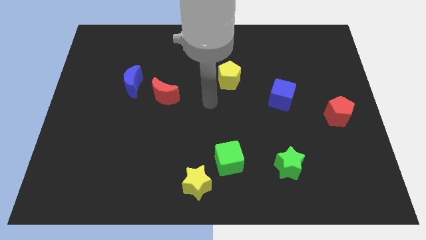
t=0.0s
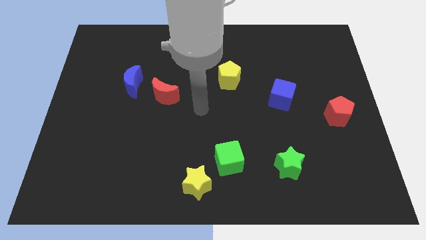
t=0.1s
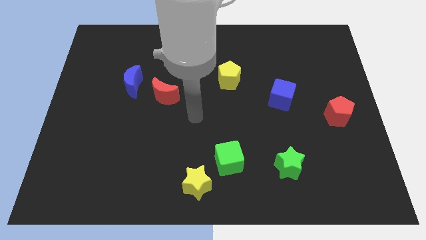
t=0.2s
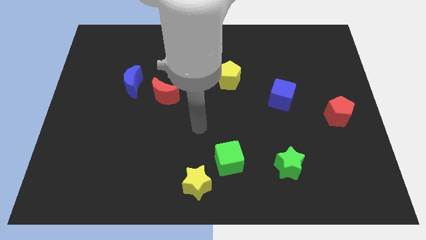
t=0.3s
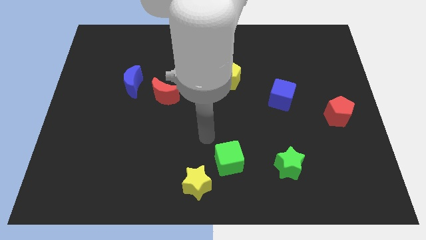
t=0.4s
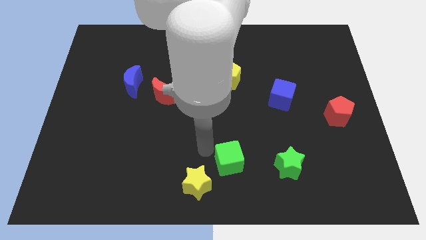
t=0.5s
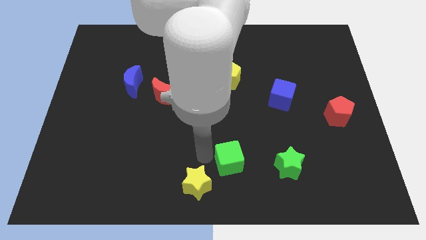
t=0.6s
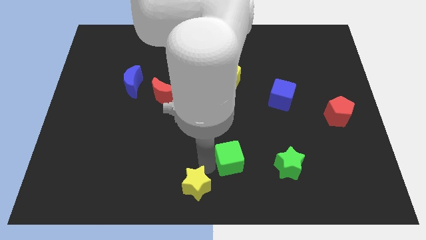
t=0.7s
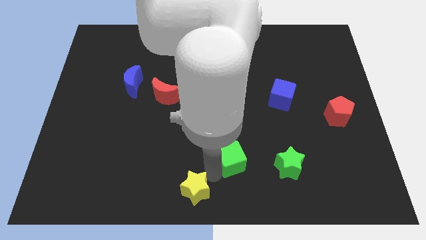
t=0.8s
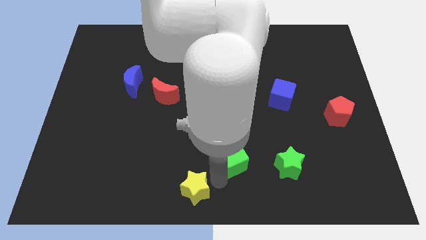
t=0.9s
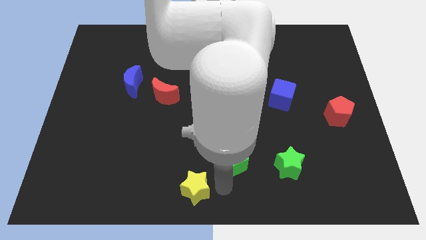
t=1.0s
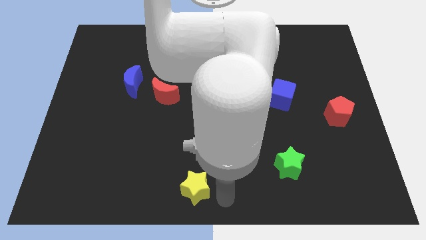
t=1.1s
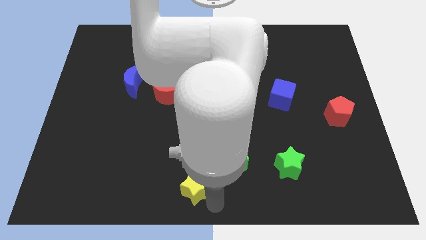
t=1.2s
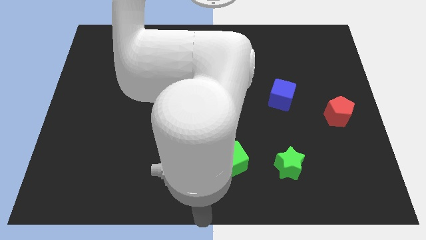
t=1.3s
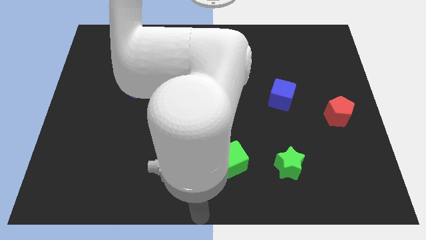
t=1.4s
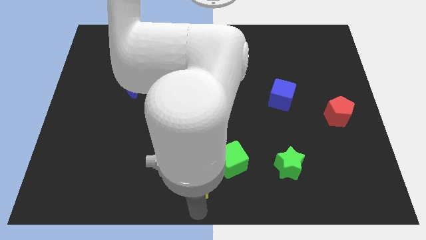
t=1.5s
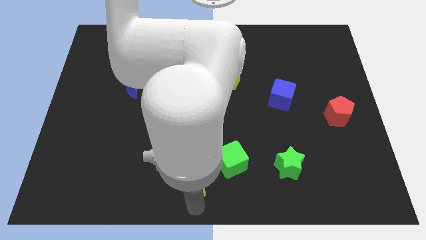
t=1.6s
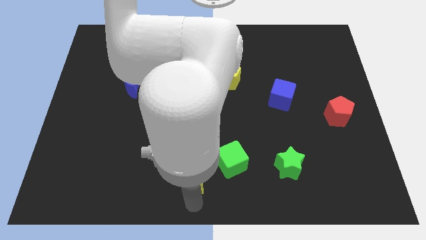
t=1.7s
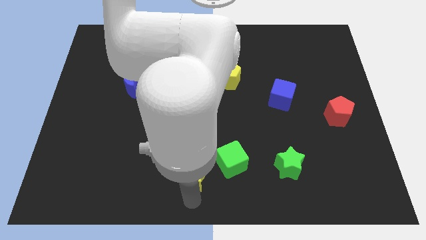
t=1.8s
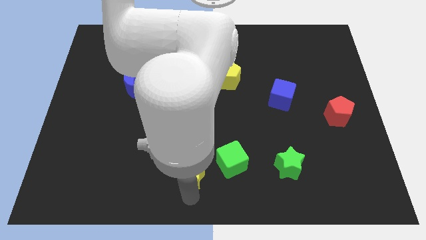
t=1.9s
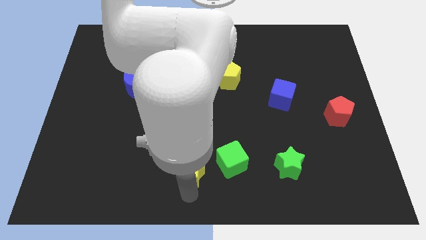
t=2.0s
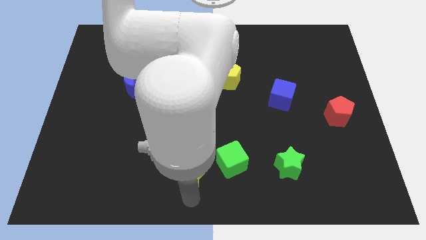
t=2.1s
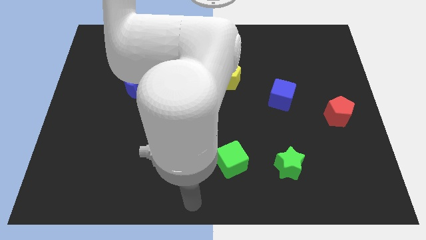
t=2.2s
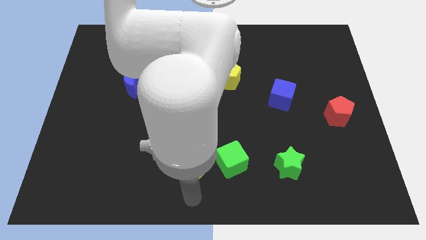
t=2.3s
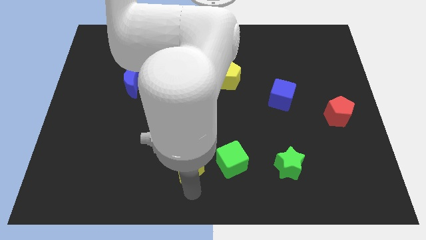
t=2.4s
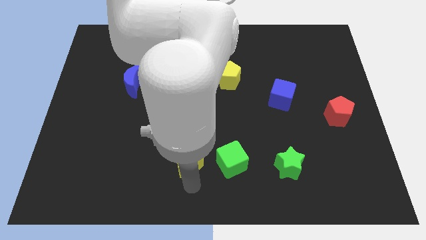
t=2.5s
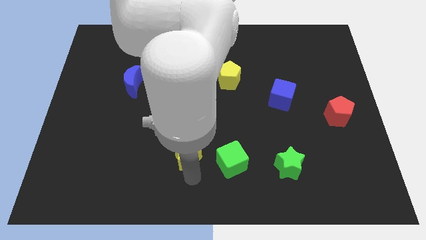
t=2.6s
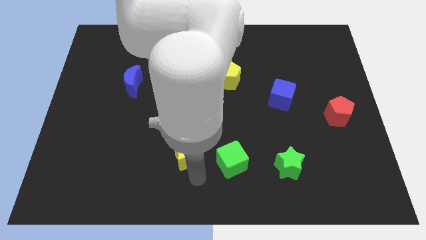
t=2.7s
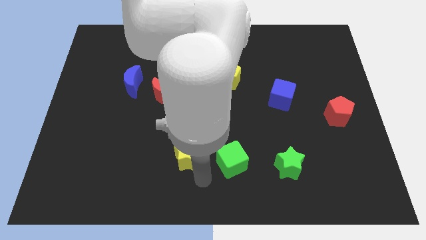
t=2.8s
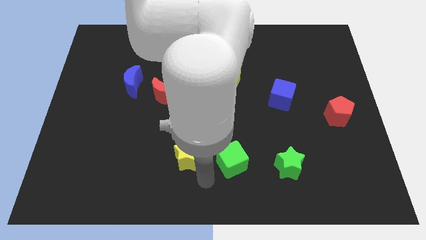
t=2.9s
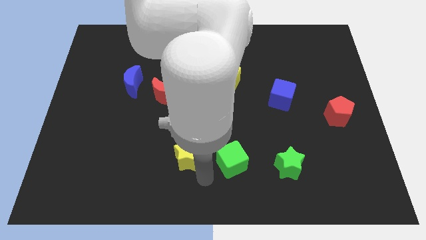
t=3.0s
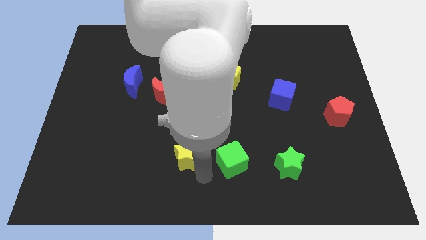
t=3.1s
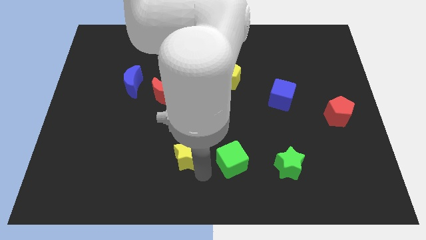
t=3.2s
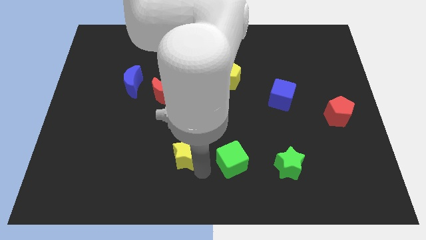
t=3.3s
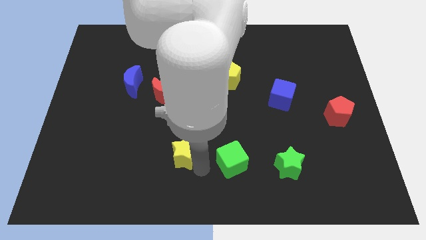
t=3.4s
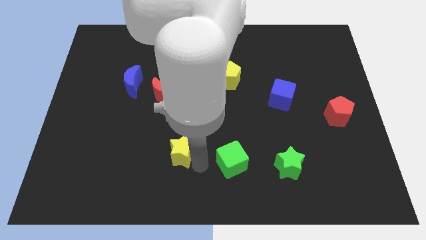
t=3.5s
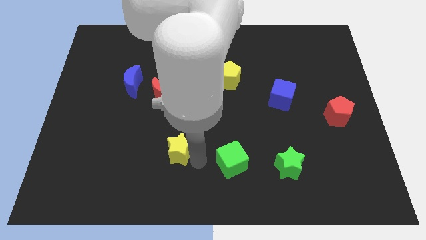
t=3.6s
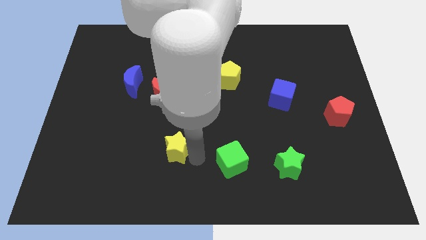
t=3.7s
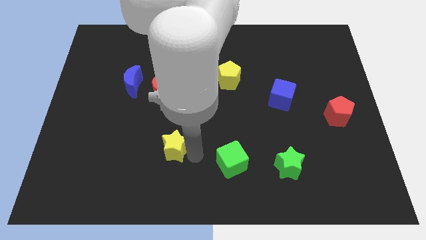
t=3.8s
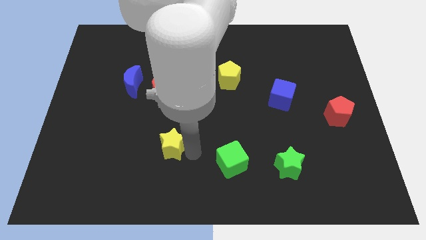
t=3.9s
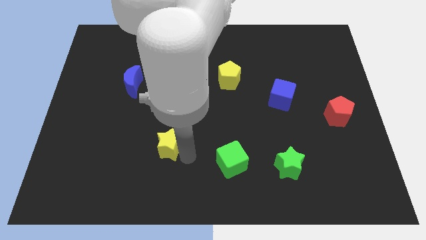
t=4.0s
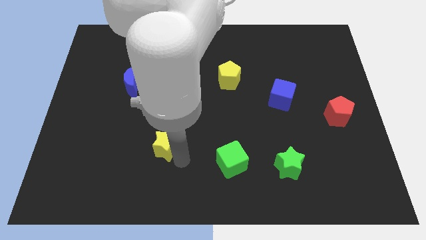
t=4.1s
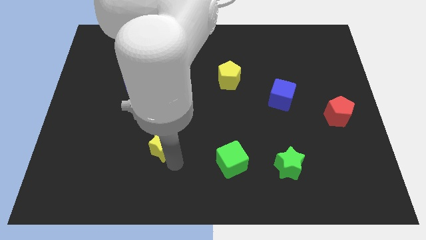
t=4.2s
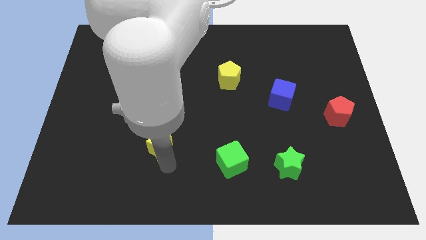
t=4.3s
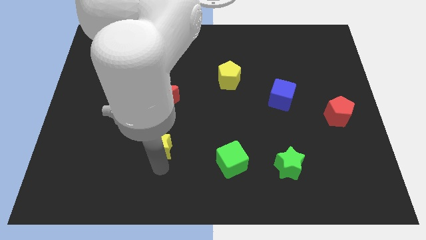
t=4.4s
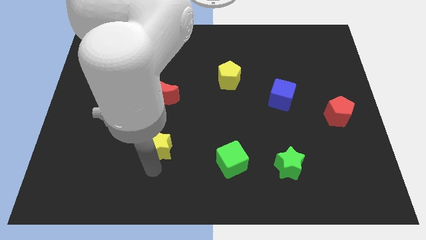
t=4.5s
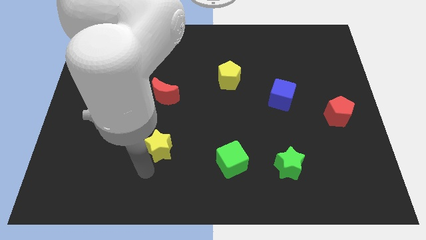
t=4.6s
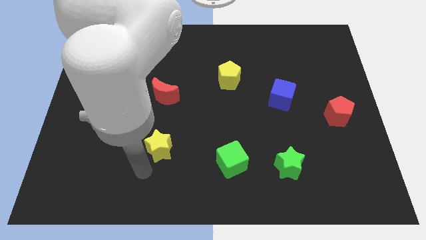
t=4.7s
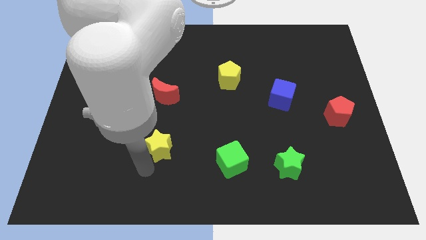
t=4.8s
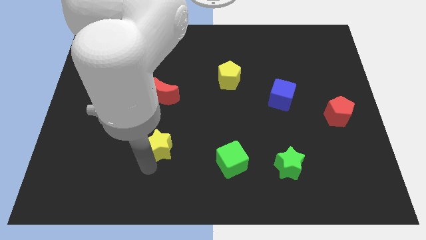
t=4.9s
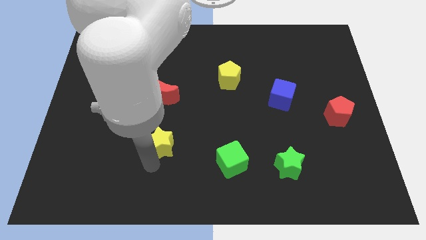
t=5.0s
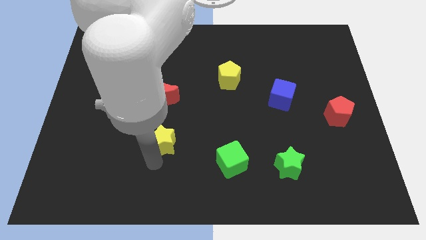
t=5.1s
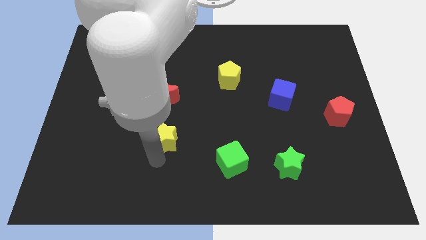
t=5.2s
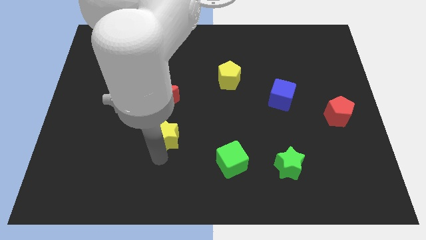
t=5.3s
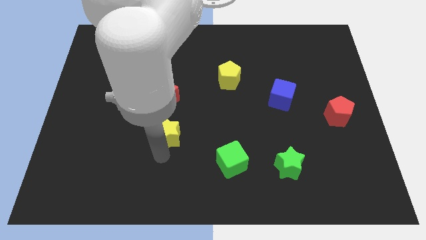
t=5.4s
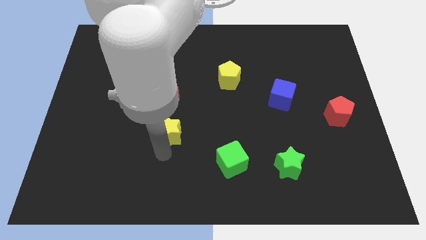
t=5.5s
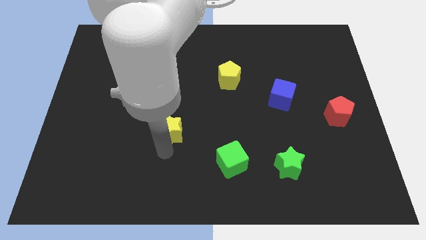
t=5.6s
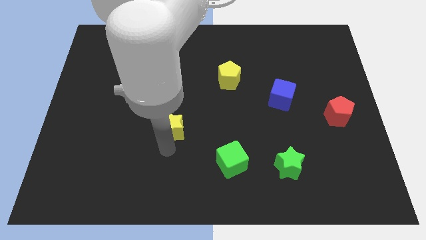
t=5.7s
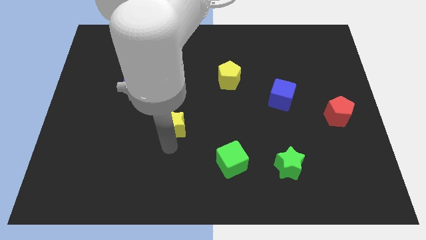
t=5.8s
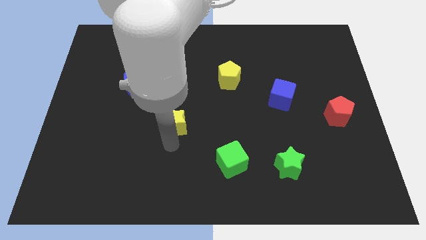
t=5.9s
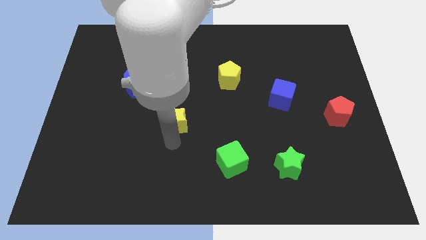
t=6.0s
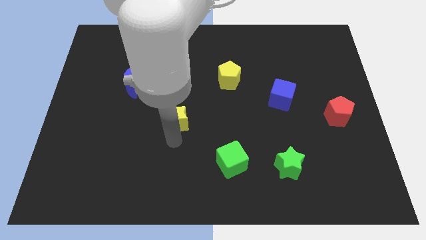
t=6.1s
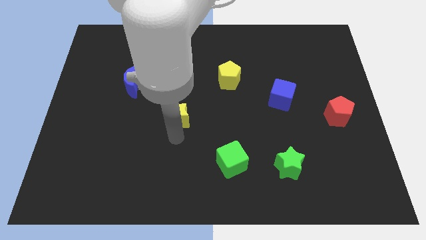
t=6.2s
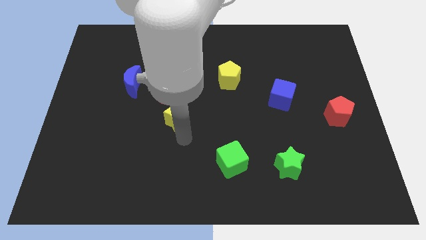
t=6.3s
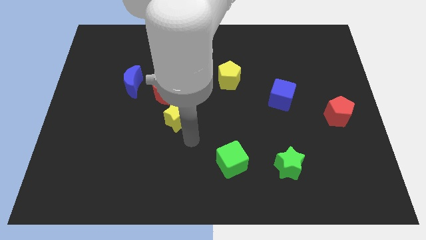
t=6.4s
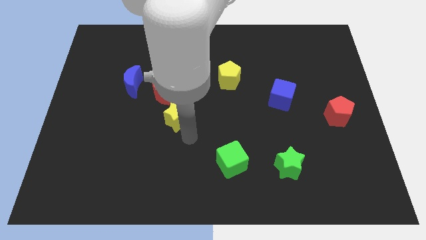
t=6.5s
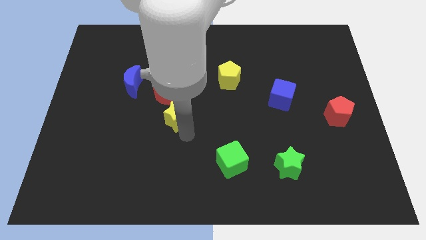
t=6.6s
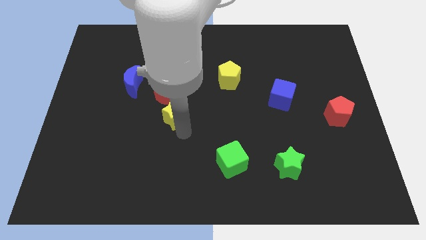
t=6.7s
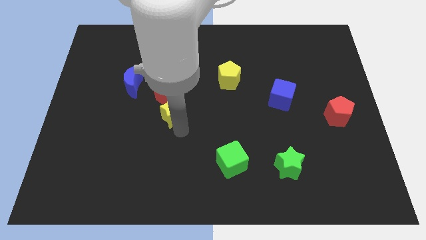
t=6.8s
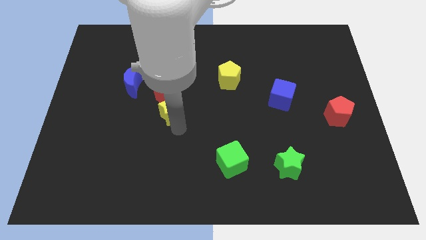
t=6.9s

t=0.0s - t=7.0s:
put the yellow star towards the red moon

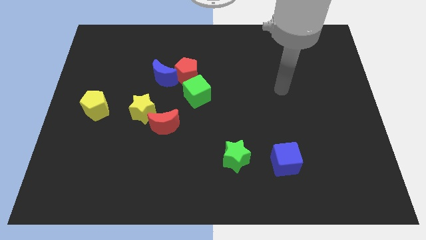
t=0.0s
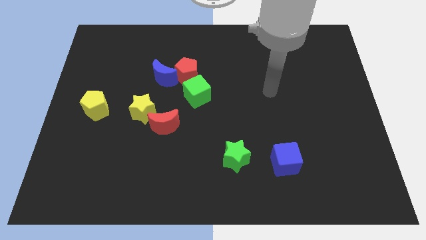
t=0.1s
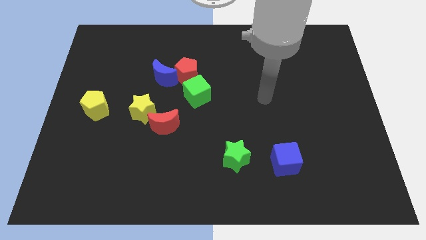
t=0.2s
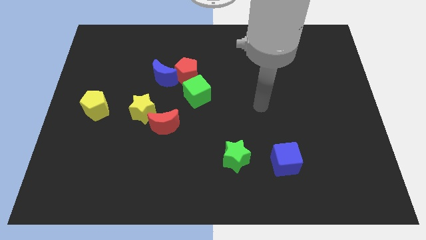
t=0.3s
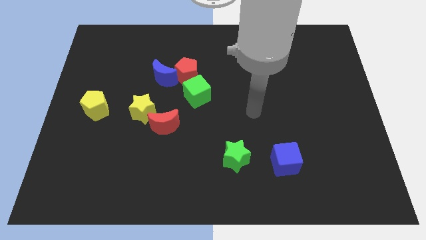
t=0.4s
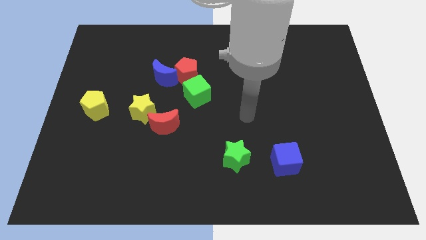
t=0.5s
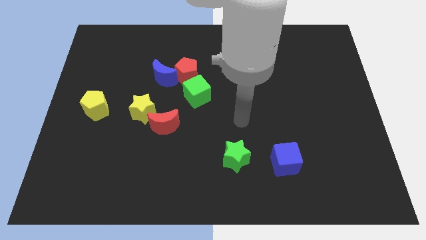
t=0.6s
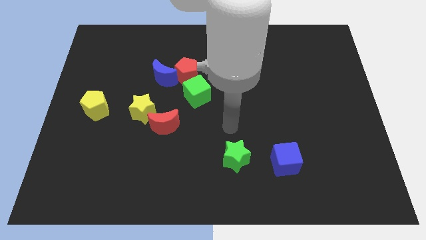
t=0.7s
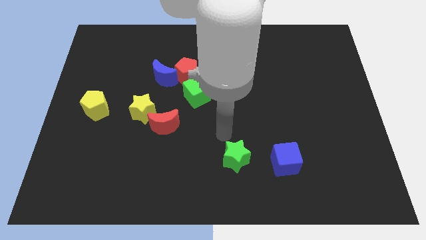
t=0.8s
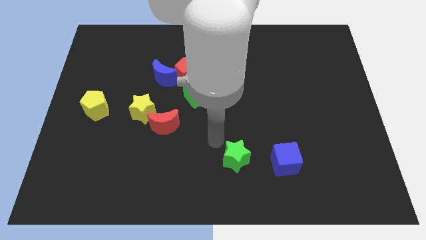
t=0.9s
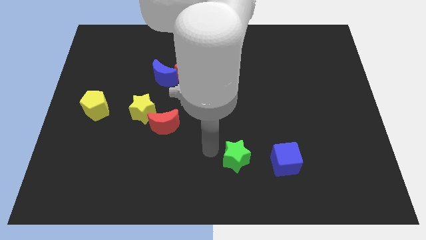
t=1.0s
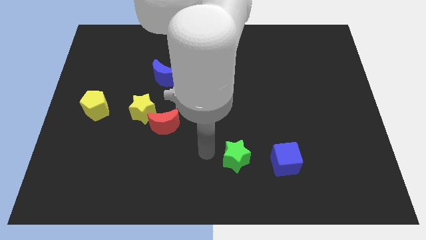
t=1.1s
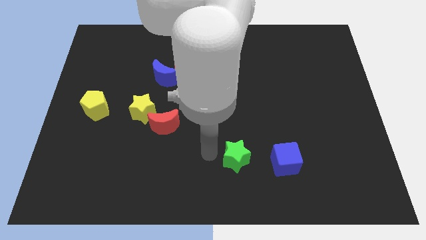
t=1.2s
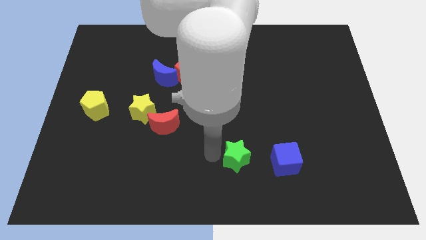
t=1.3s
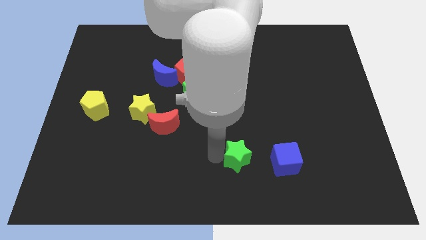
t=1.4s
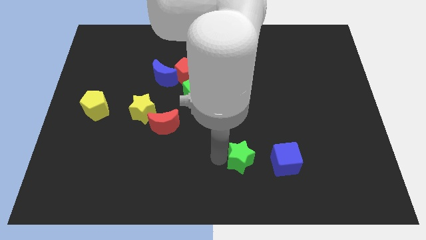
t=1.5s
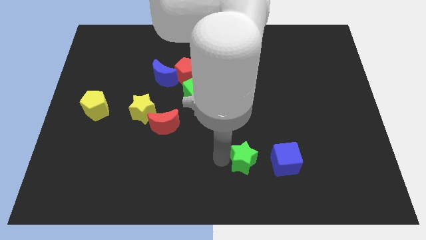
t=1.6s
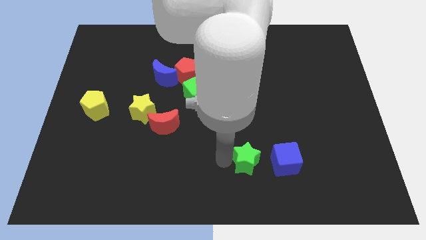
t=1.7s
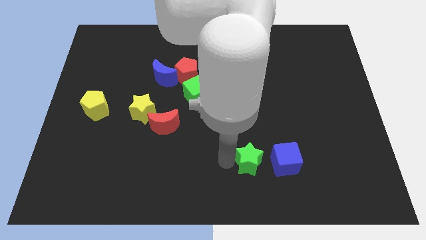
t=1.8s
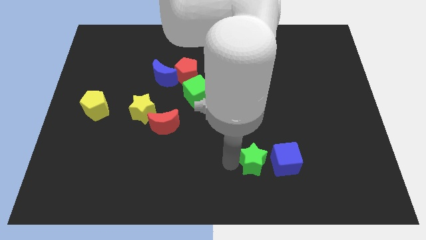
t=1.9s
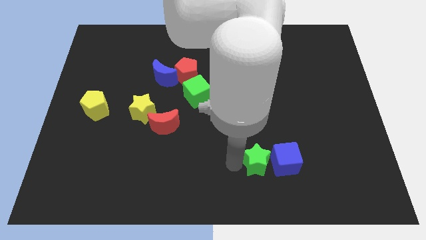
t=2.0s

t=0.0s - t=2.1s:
push the green star close to the blue cube
